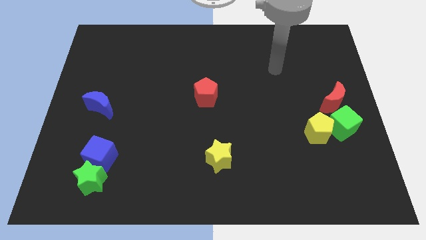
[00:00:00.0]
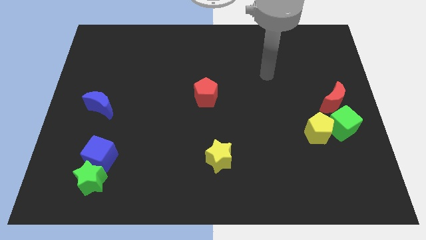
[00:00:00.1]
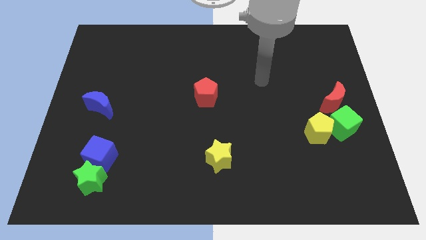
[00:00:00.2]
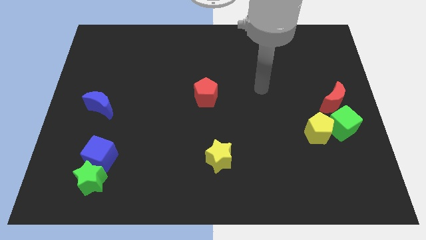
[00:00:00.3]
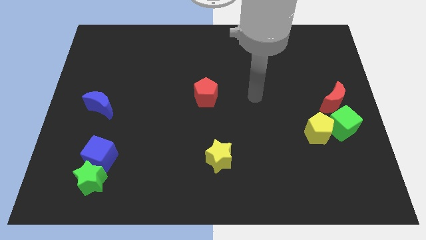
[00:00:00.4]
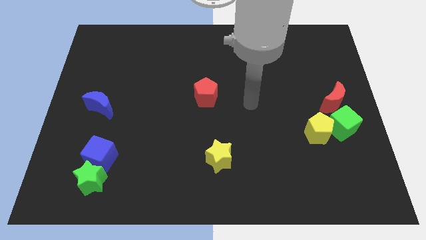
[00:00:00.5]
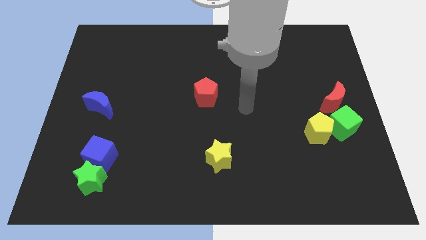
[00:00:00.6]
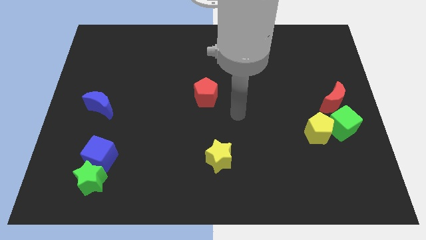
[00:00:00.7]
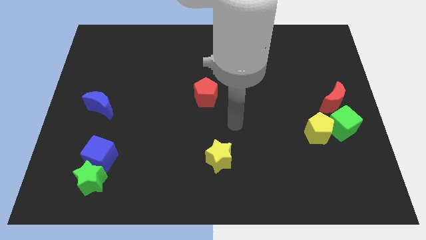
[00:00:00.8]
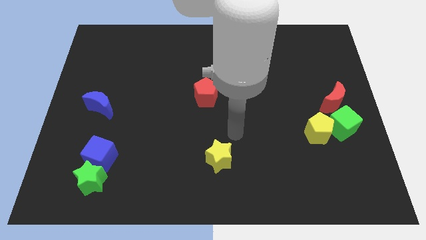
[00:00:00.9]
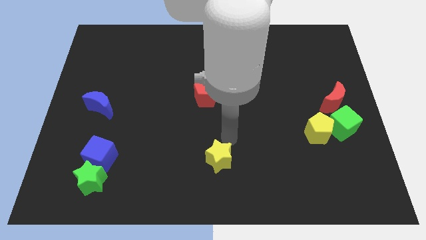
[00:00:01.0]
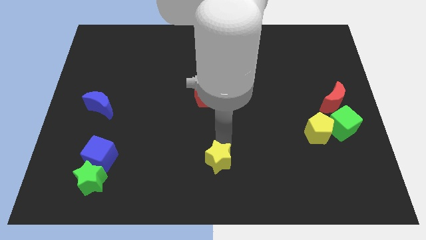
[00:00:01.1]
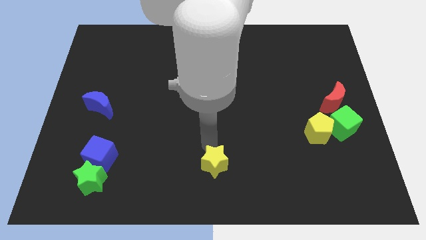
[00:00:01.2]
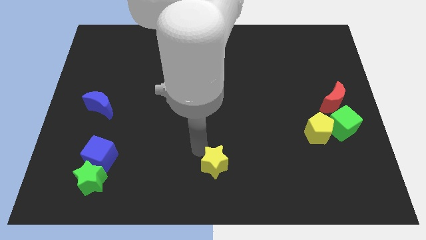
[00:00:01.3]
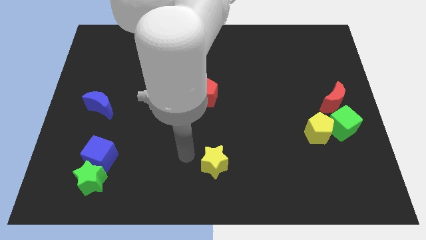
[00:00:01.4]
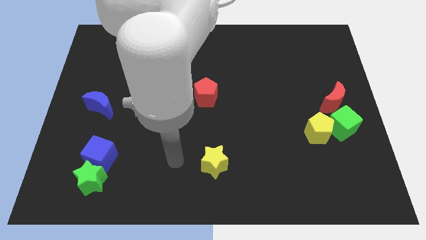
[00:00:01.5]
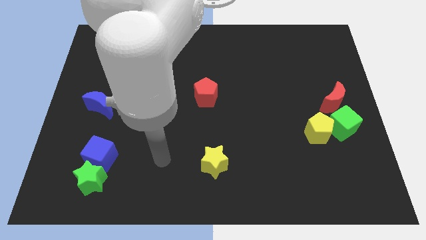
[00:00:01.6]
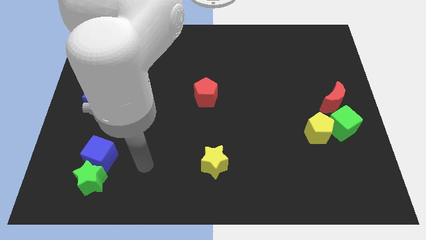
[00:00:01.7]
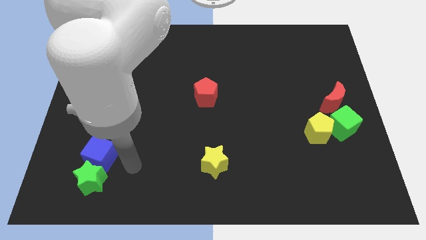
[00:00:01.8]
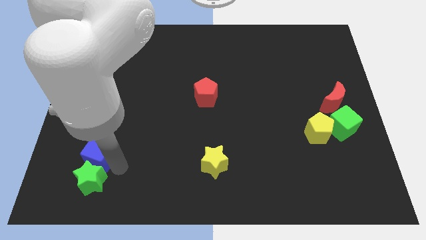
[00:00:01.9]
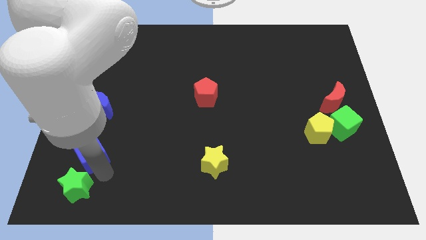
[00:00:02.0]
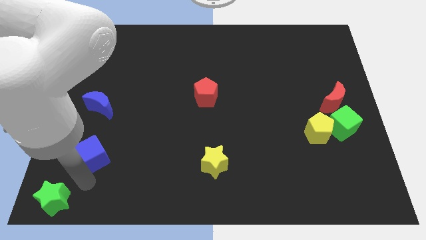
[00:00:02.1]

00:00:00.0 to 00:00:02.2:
move the blue cube away from the green star

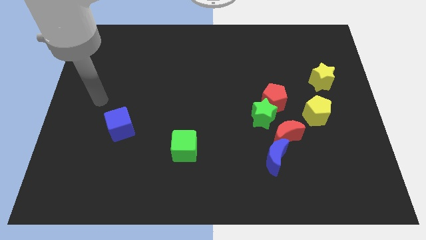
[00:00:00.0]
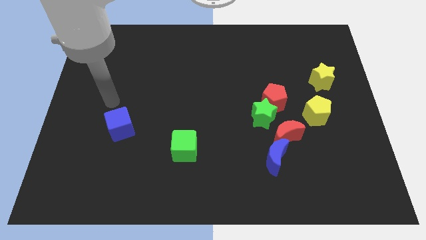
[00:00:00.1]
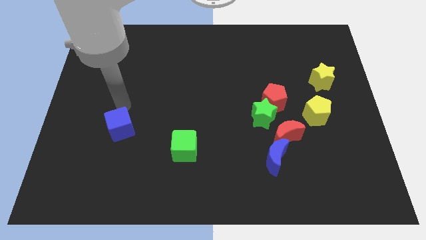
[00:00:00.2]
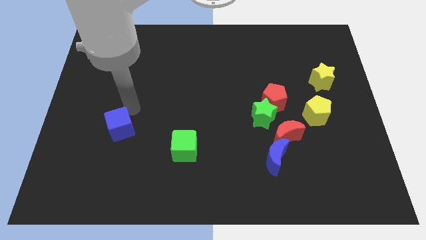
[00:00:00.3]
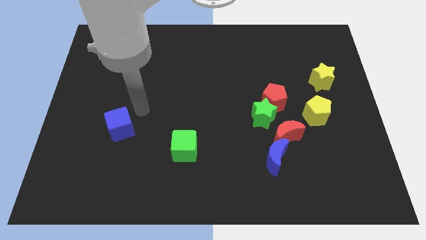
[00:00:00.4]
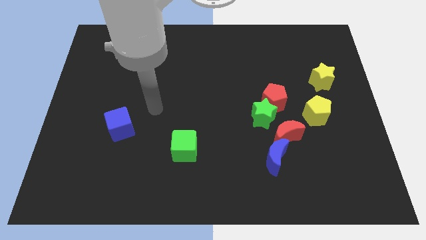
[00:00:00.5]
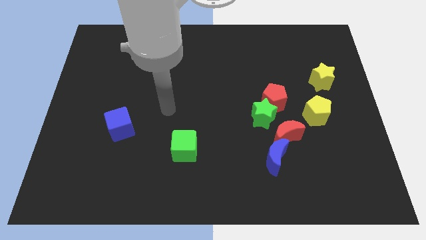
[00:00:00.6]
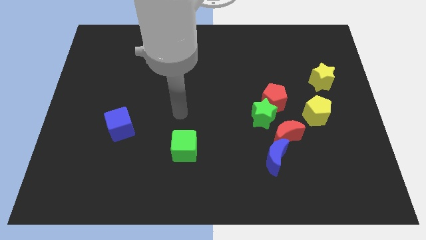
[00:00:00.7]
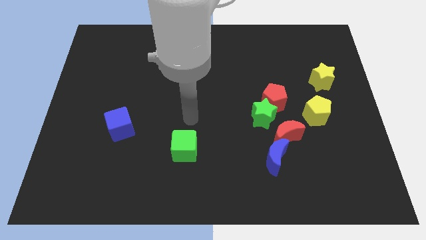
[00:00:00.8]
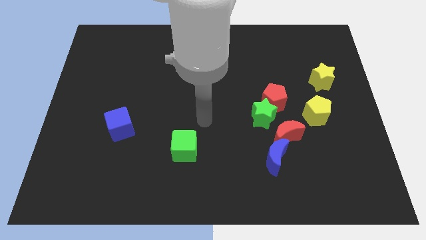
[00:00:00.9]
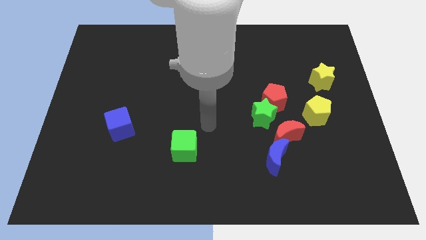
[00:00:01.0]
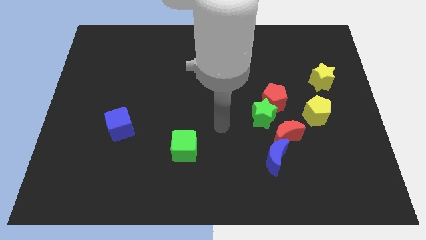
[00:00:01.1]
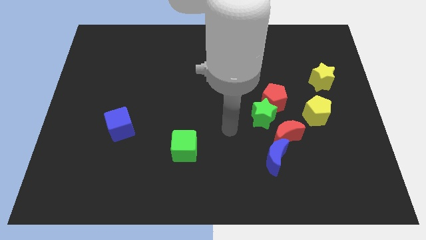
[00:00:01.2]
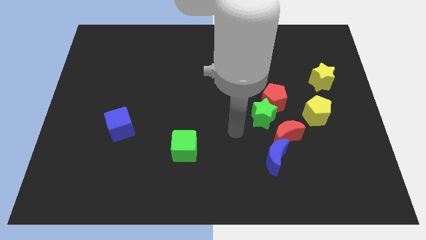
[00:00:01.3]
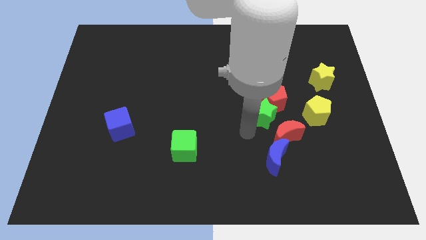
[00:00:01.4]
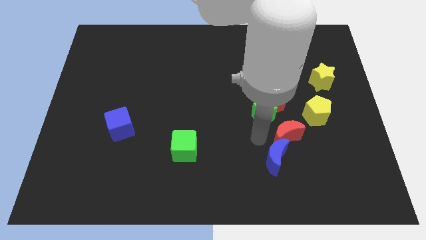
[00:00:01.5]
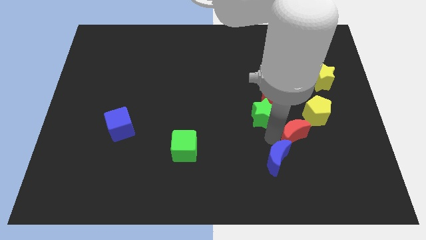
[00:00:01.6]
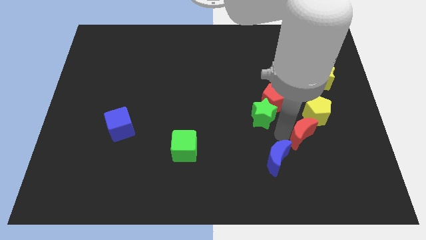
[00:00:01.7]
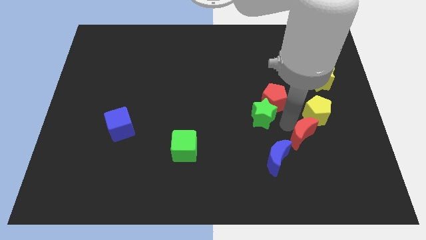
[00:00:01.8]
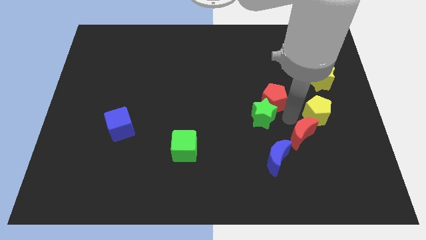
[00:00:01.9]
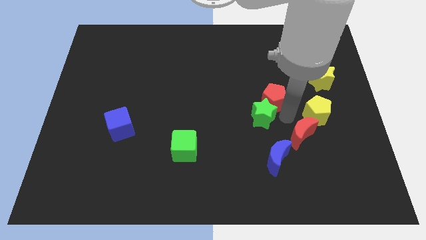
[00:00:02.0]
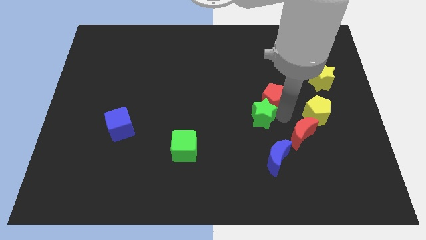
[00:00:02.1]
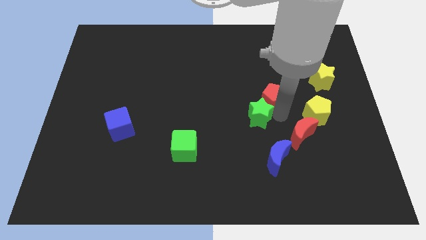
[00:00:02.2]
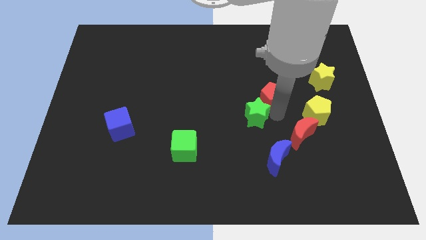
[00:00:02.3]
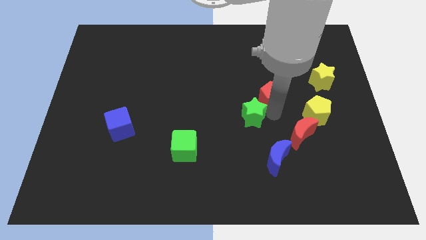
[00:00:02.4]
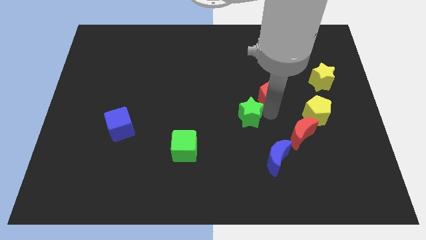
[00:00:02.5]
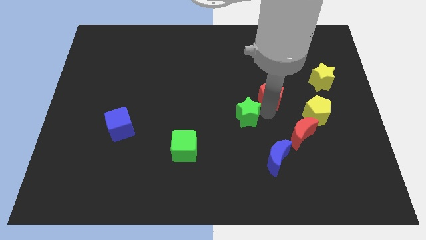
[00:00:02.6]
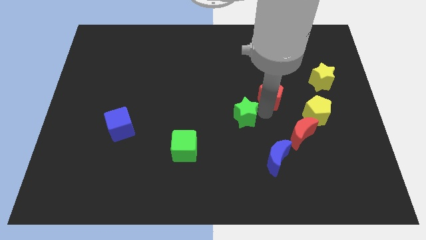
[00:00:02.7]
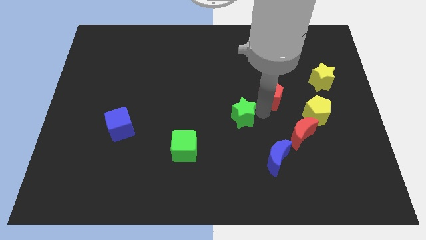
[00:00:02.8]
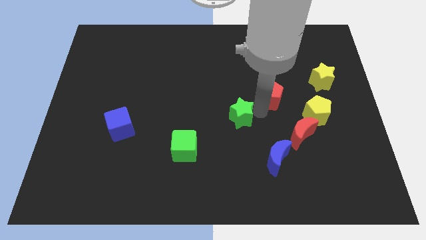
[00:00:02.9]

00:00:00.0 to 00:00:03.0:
move the green star away from the red pentagon and red moon

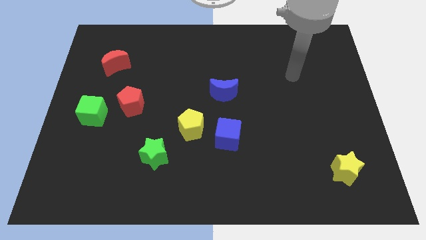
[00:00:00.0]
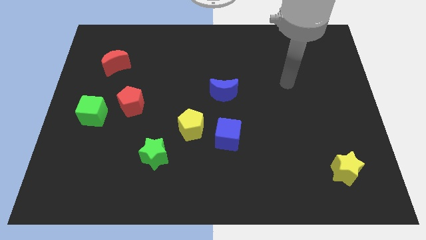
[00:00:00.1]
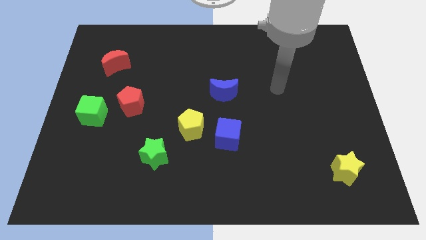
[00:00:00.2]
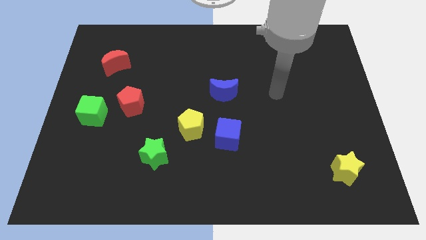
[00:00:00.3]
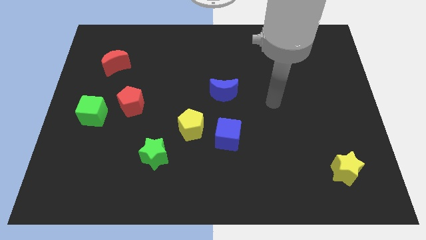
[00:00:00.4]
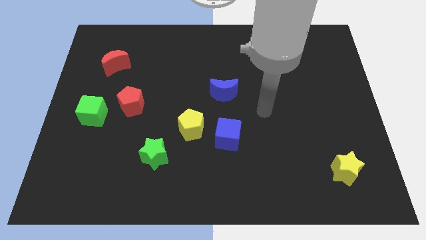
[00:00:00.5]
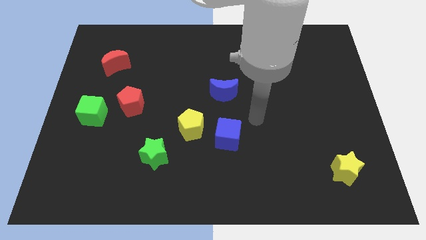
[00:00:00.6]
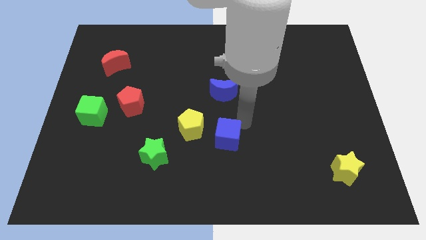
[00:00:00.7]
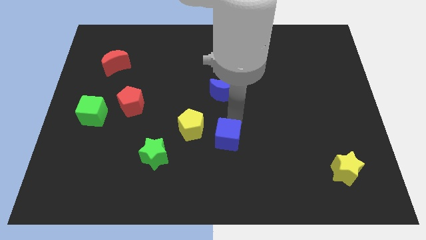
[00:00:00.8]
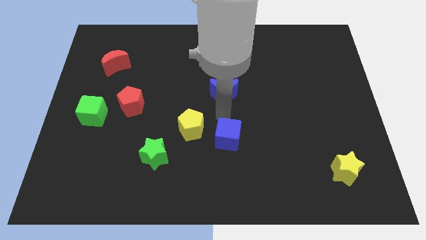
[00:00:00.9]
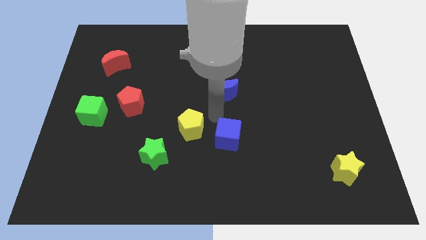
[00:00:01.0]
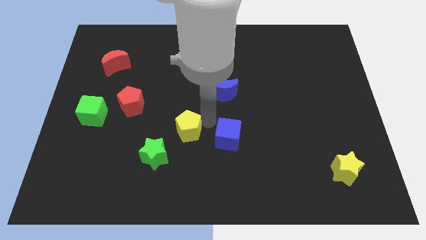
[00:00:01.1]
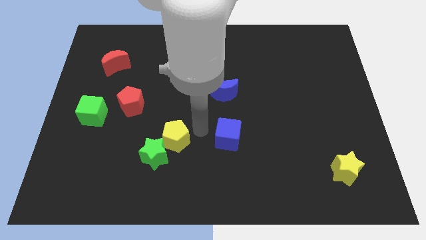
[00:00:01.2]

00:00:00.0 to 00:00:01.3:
move the blue cube away from the yellow pentagon

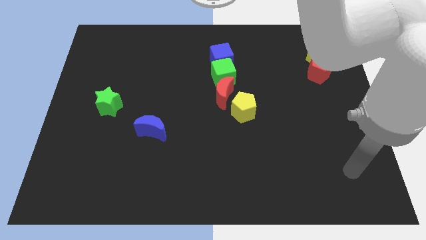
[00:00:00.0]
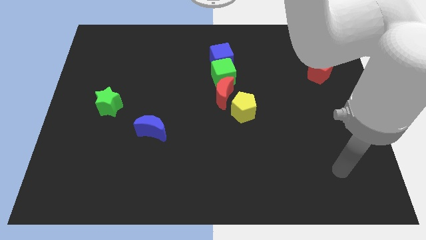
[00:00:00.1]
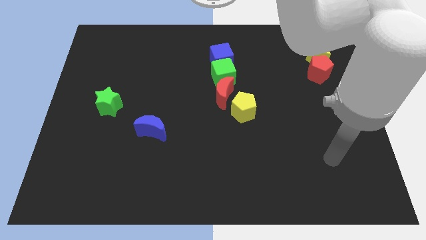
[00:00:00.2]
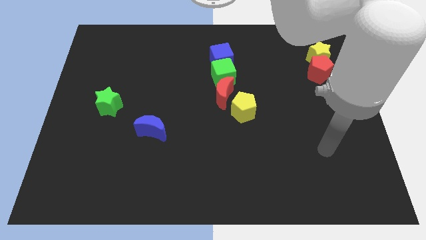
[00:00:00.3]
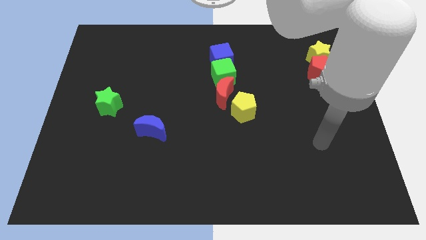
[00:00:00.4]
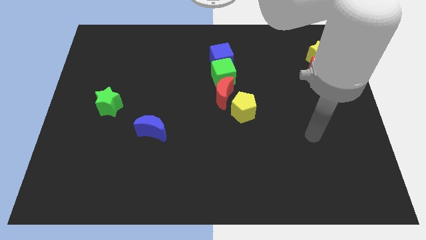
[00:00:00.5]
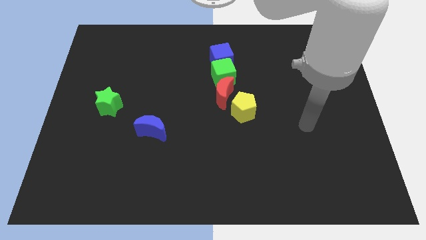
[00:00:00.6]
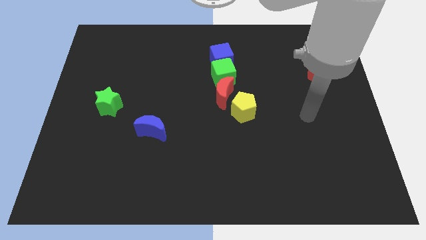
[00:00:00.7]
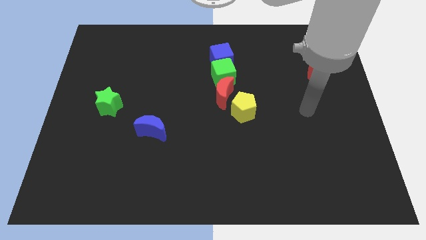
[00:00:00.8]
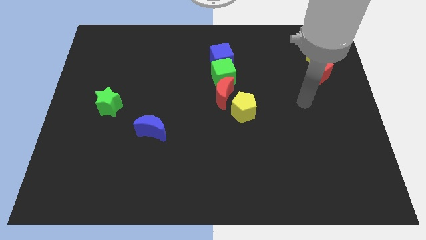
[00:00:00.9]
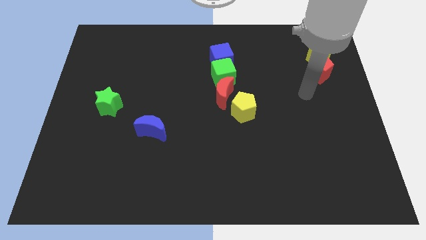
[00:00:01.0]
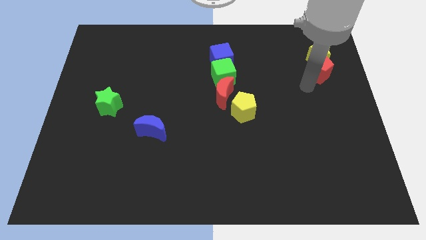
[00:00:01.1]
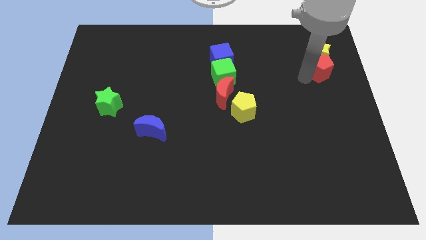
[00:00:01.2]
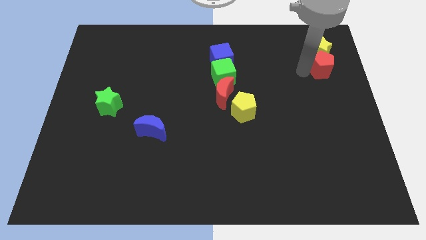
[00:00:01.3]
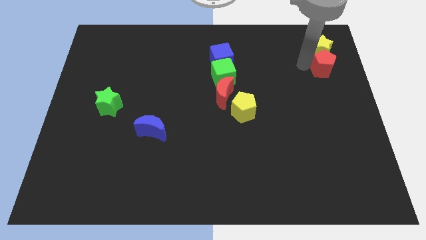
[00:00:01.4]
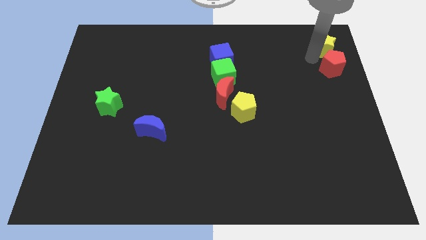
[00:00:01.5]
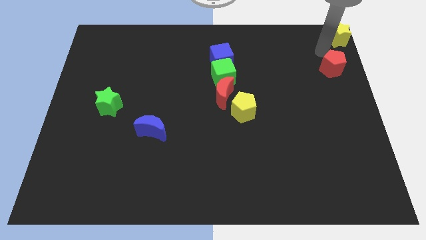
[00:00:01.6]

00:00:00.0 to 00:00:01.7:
move the red pentagon away from the yellow star

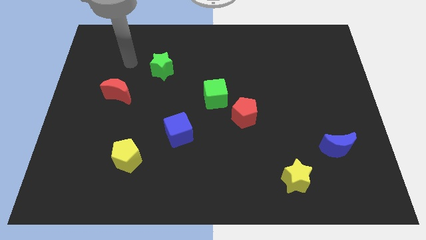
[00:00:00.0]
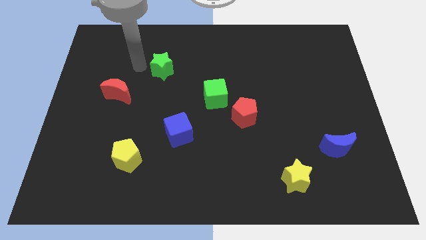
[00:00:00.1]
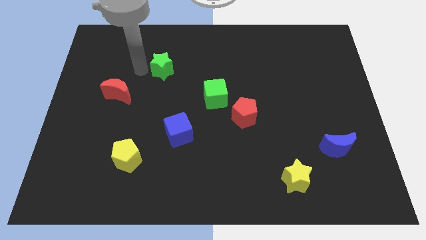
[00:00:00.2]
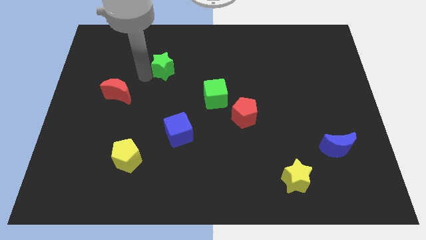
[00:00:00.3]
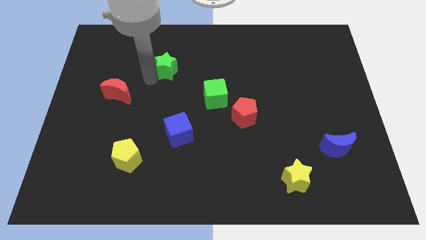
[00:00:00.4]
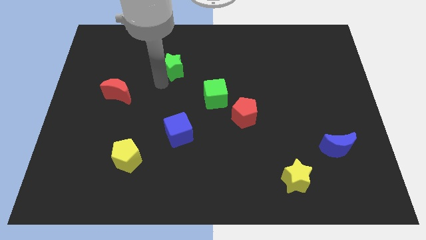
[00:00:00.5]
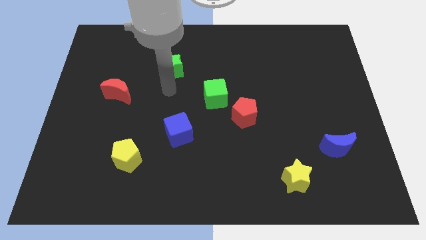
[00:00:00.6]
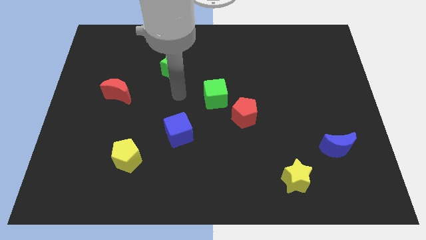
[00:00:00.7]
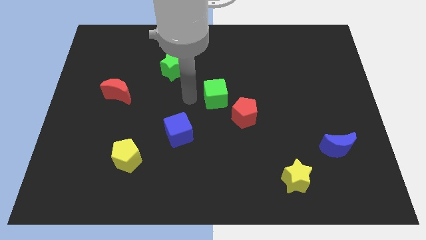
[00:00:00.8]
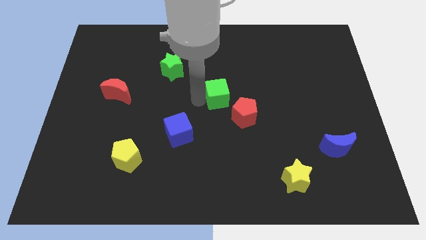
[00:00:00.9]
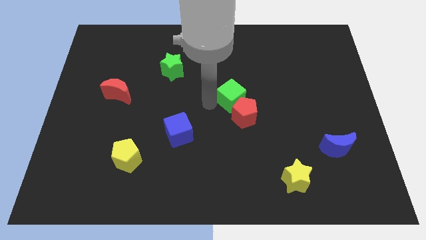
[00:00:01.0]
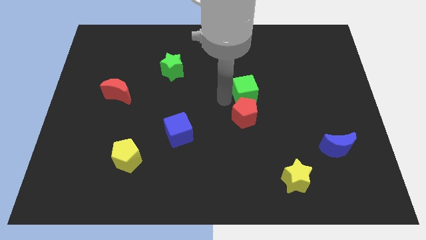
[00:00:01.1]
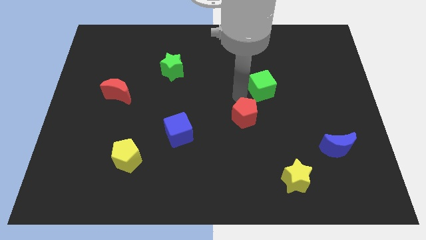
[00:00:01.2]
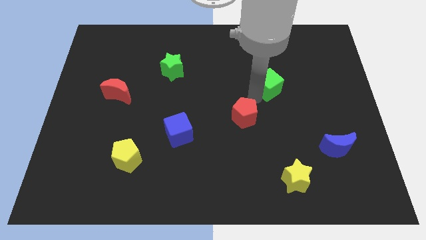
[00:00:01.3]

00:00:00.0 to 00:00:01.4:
separate the red pentagon from the green cube
